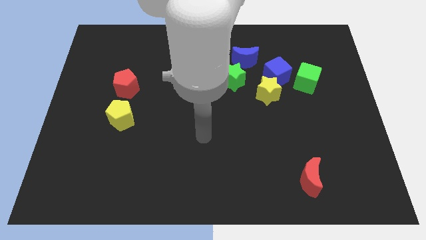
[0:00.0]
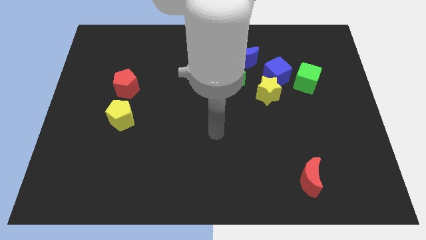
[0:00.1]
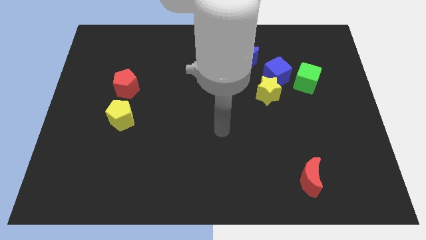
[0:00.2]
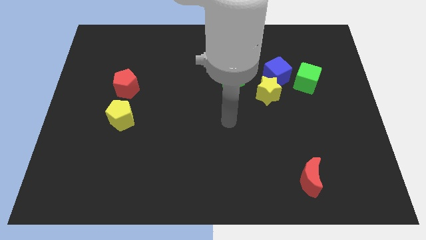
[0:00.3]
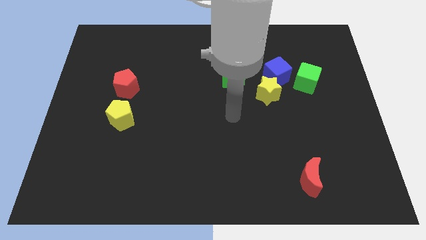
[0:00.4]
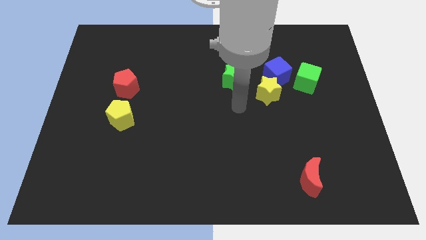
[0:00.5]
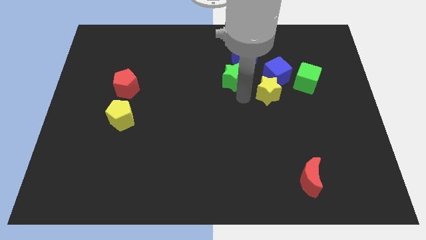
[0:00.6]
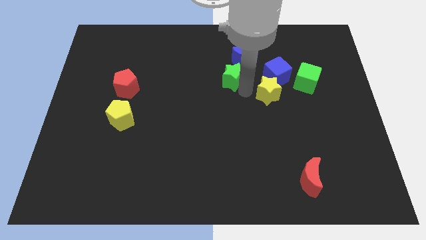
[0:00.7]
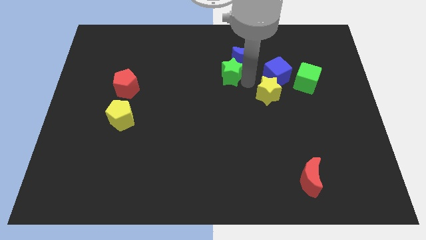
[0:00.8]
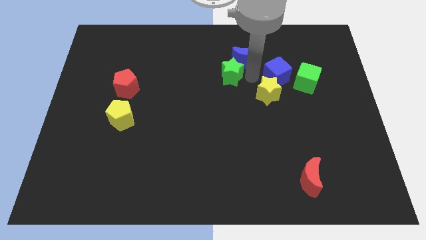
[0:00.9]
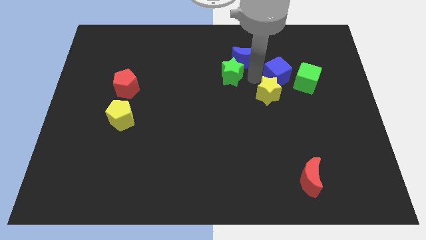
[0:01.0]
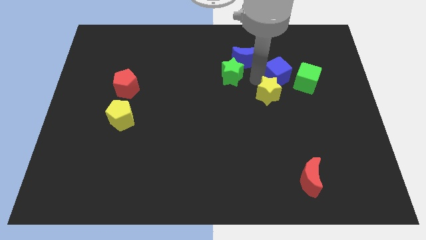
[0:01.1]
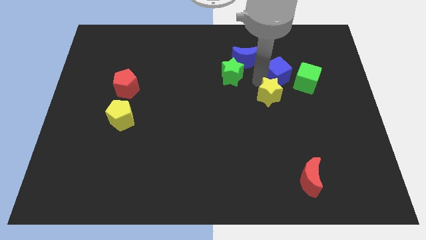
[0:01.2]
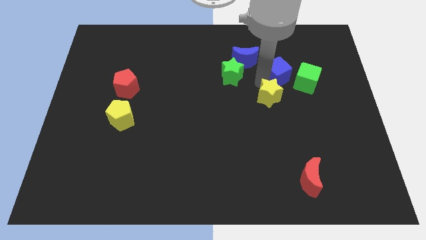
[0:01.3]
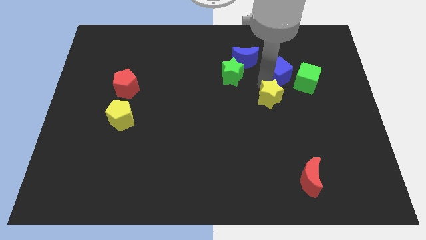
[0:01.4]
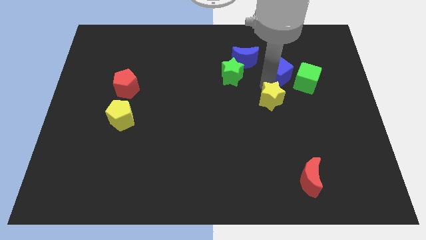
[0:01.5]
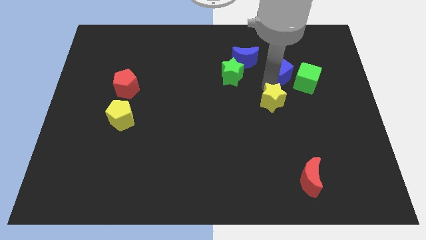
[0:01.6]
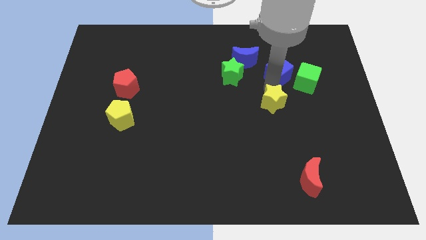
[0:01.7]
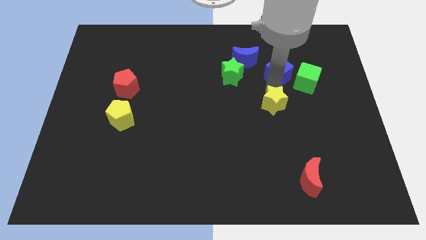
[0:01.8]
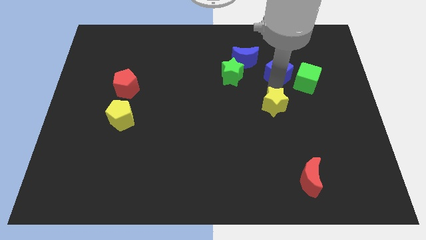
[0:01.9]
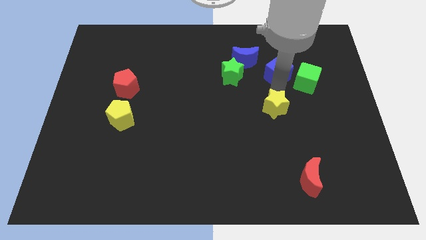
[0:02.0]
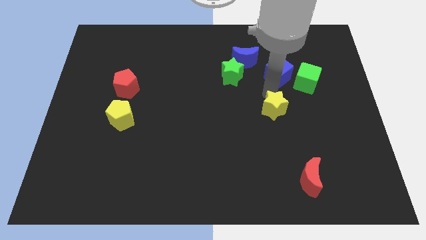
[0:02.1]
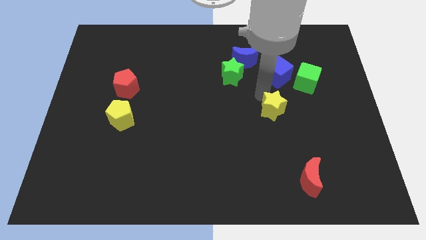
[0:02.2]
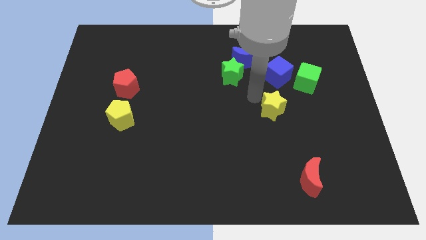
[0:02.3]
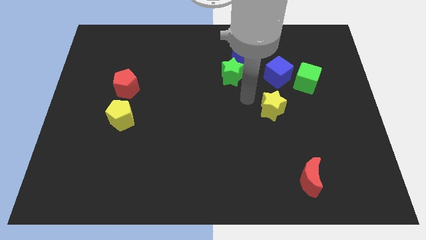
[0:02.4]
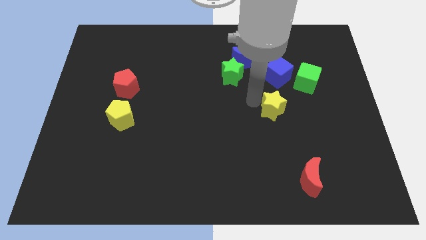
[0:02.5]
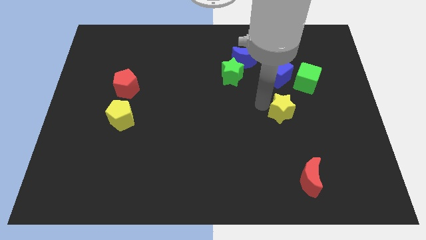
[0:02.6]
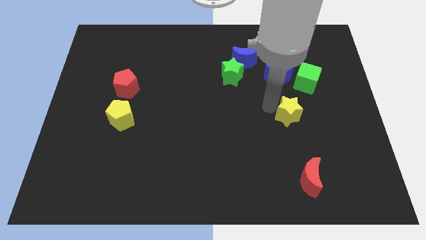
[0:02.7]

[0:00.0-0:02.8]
slightly move the yellow star down and then right

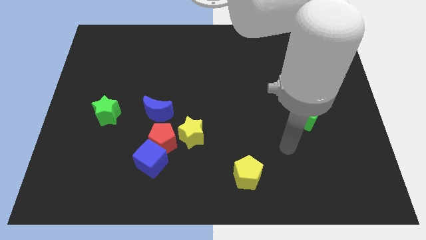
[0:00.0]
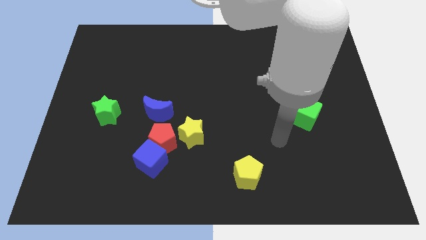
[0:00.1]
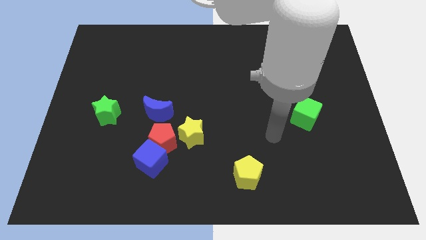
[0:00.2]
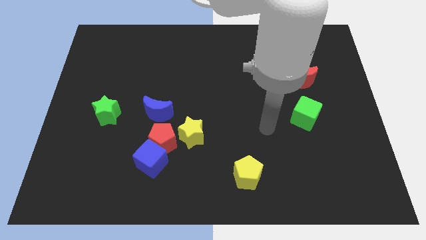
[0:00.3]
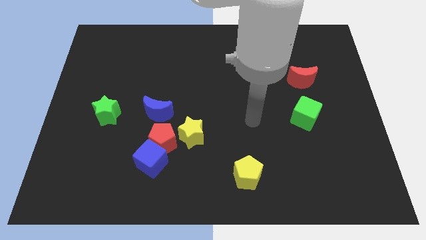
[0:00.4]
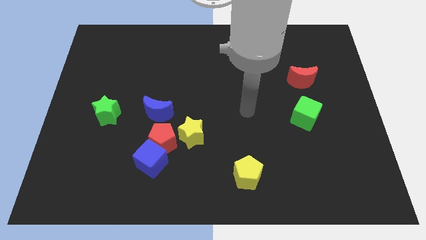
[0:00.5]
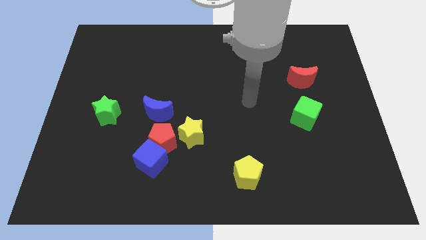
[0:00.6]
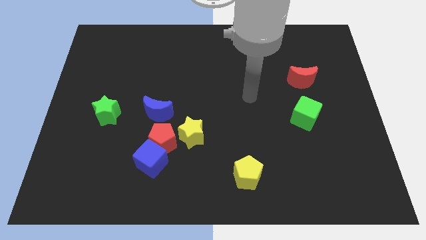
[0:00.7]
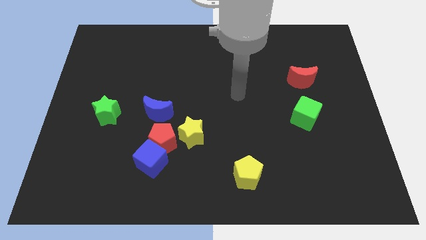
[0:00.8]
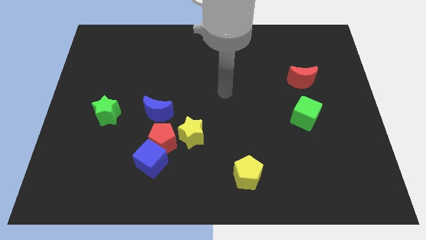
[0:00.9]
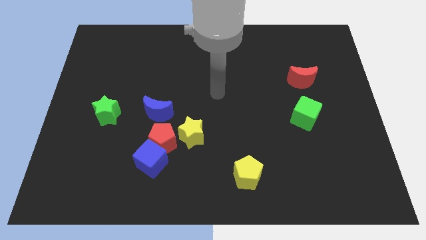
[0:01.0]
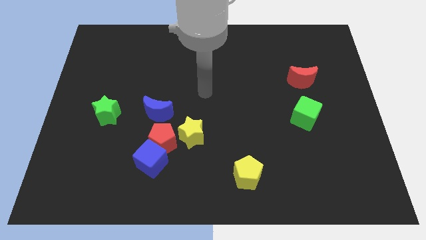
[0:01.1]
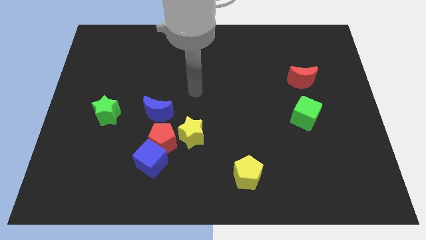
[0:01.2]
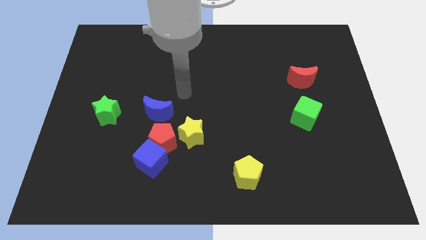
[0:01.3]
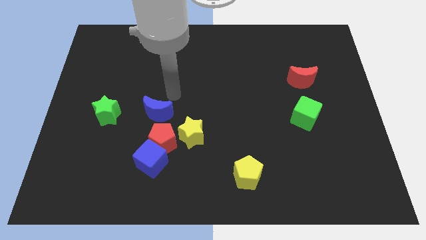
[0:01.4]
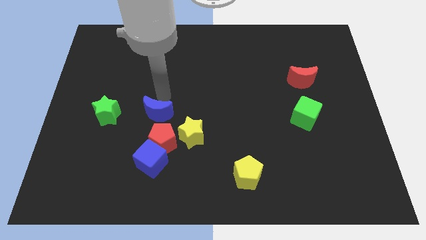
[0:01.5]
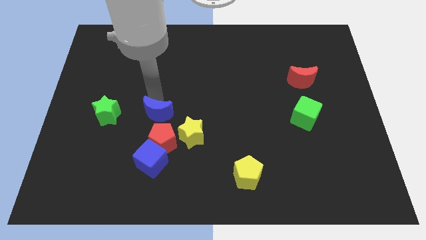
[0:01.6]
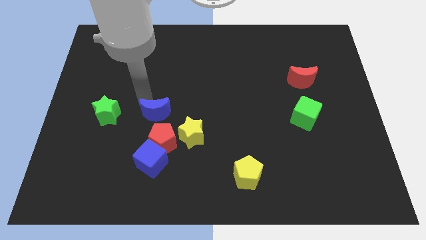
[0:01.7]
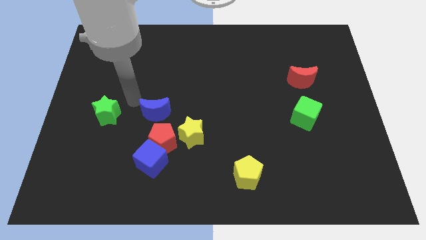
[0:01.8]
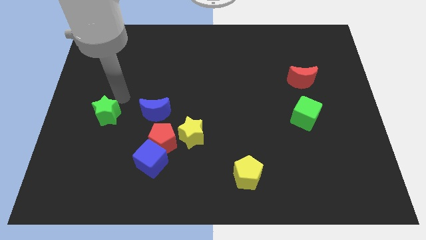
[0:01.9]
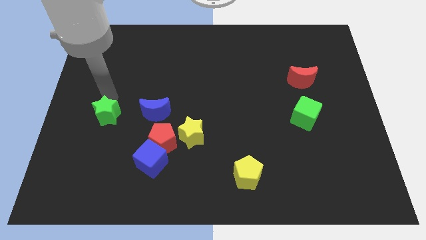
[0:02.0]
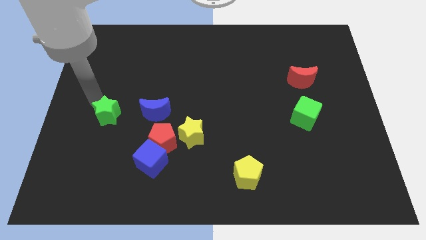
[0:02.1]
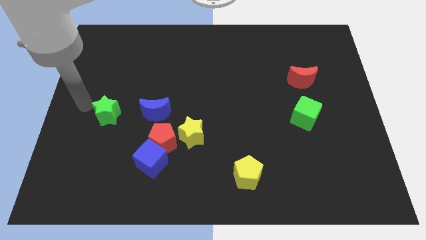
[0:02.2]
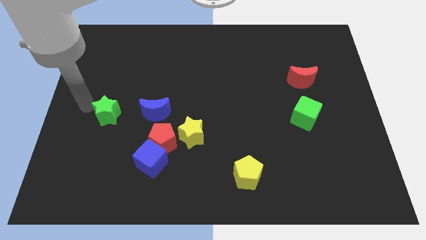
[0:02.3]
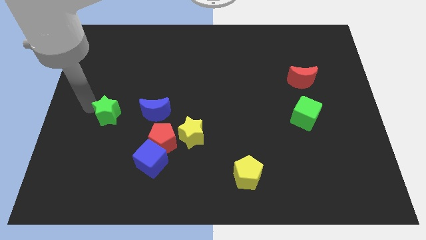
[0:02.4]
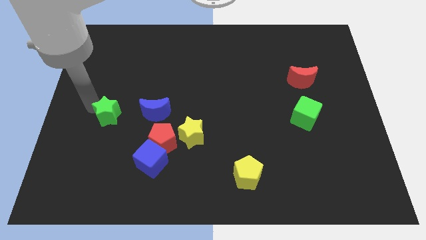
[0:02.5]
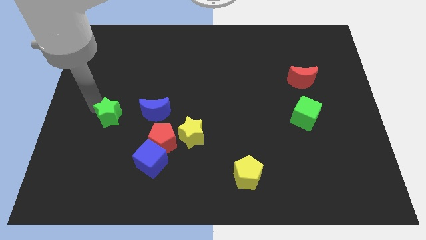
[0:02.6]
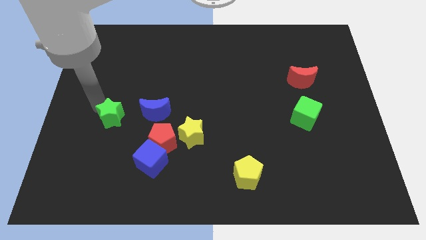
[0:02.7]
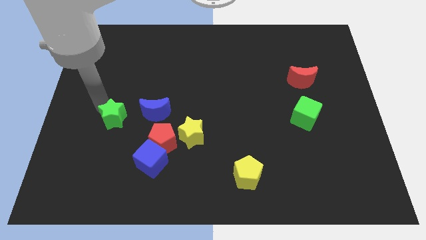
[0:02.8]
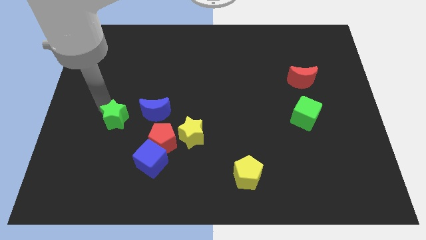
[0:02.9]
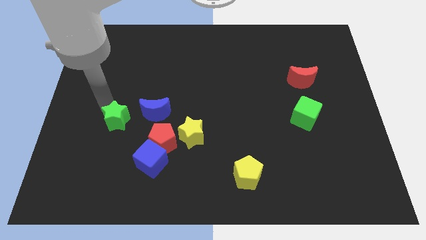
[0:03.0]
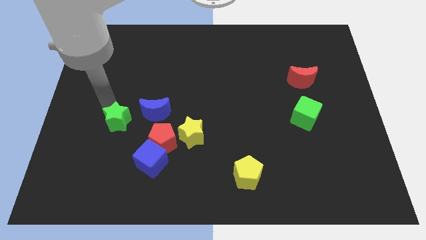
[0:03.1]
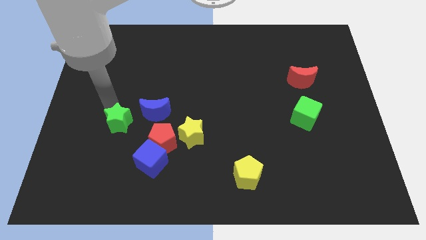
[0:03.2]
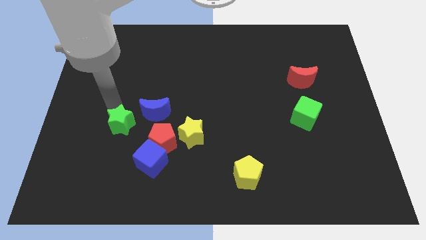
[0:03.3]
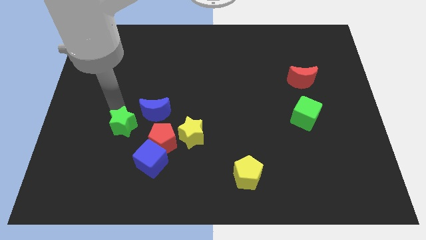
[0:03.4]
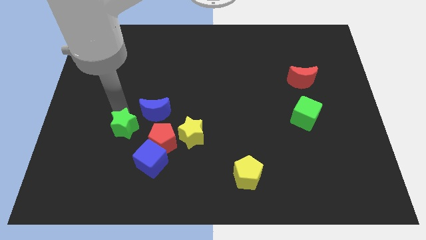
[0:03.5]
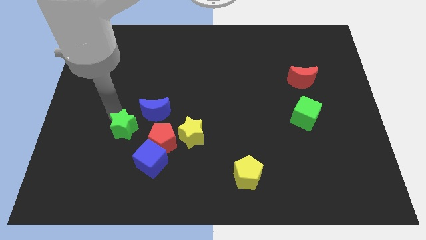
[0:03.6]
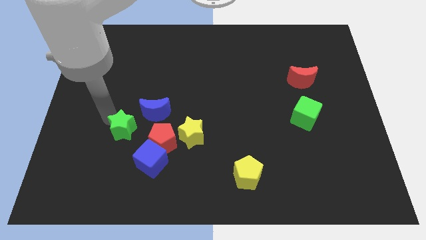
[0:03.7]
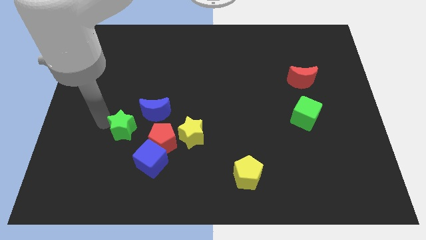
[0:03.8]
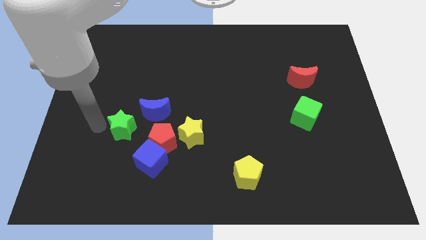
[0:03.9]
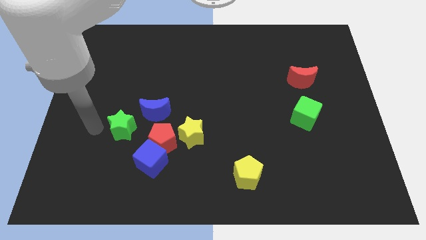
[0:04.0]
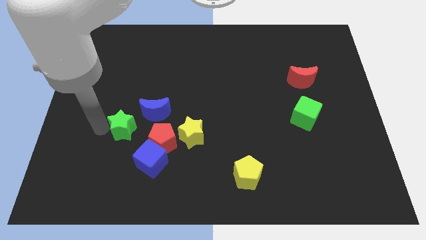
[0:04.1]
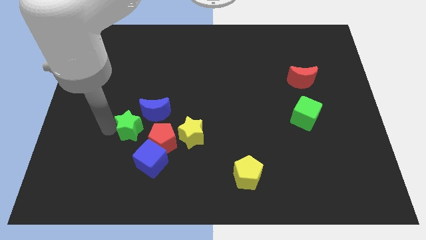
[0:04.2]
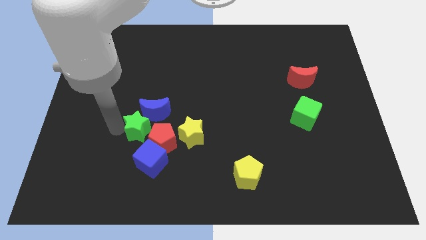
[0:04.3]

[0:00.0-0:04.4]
slide the green star right slightly

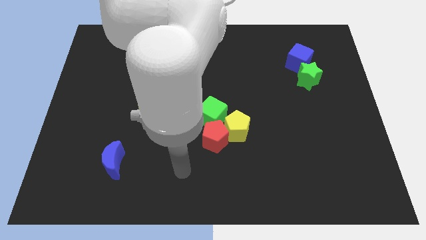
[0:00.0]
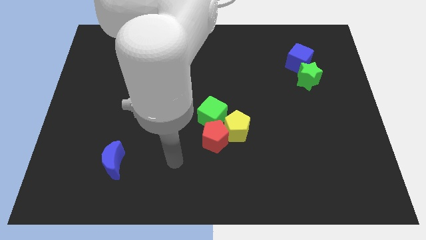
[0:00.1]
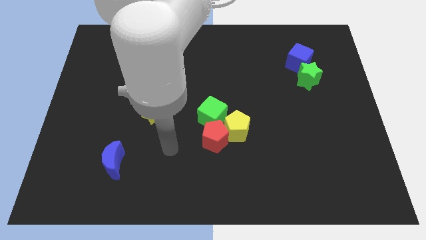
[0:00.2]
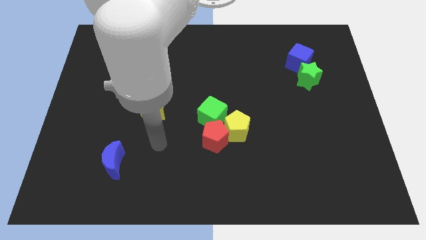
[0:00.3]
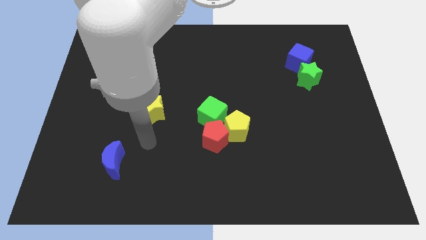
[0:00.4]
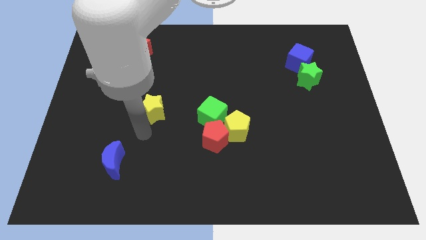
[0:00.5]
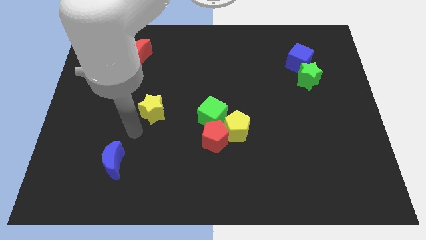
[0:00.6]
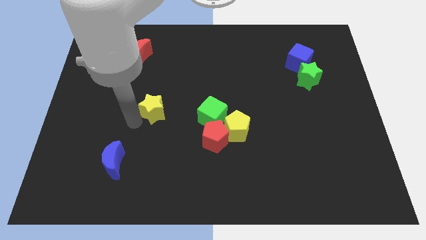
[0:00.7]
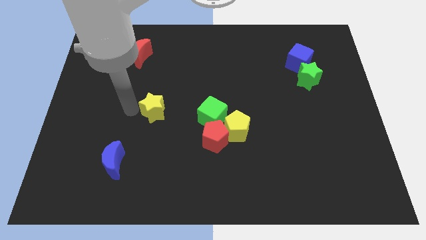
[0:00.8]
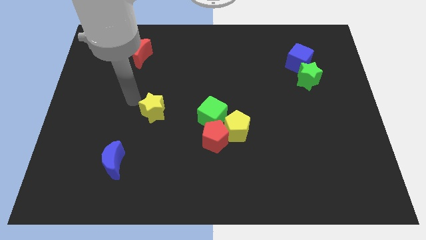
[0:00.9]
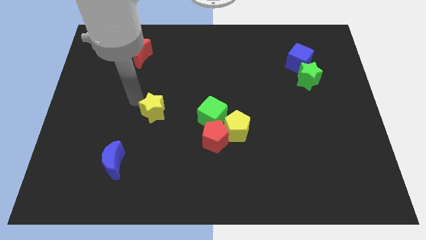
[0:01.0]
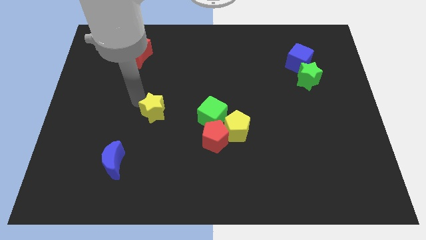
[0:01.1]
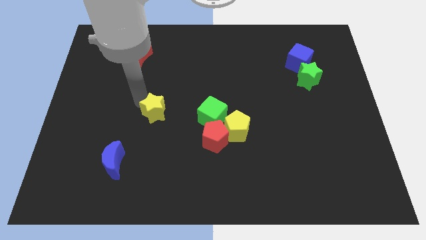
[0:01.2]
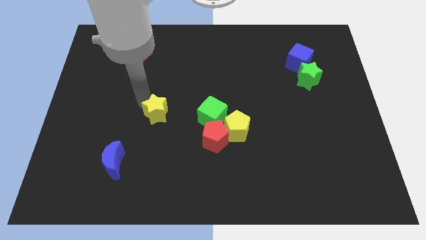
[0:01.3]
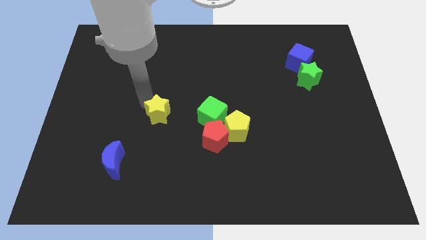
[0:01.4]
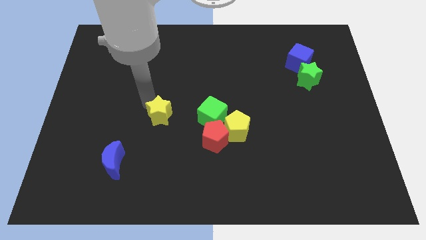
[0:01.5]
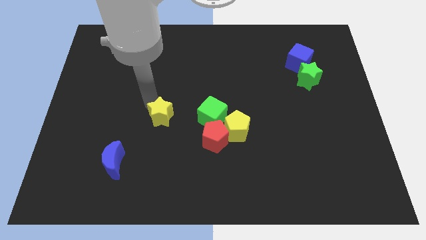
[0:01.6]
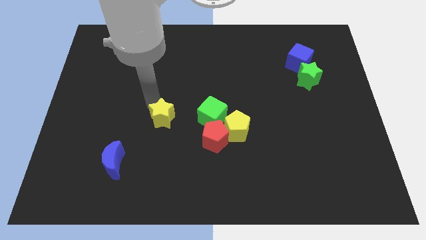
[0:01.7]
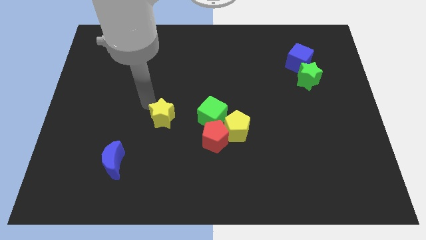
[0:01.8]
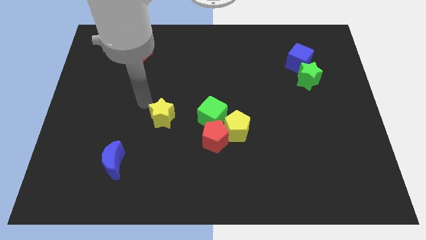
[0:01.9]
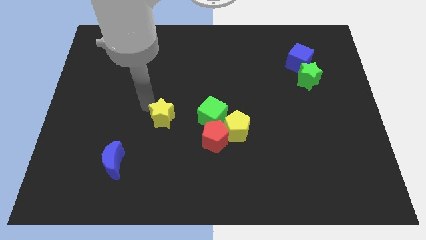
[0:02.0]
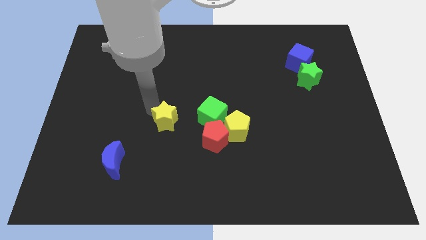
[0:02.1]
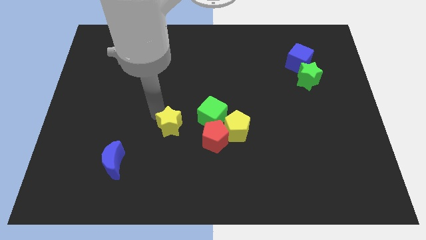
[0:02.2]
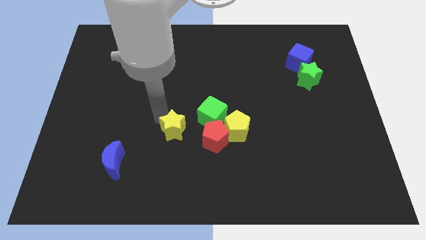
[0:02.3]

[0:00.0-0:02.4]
slightly push the yellow star downwards and then right
